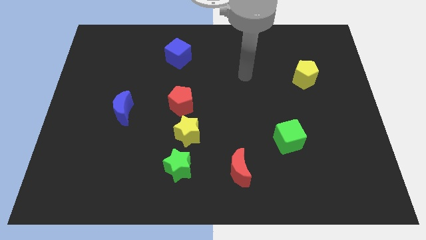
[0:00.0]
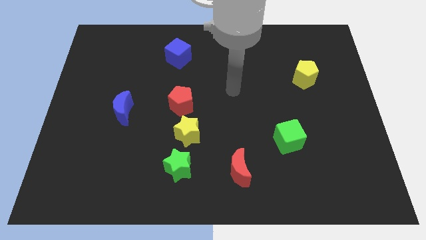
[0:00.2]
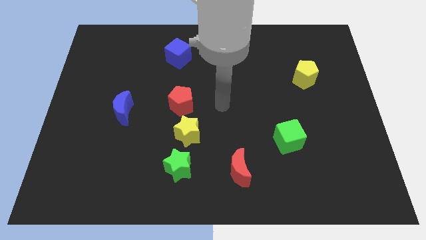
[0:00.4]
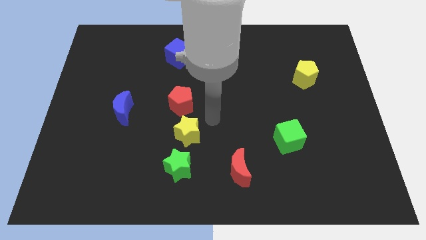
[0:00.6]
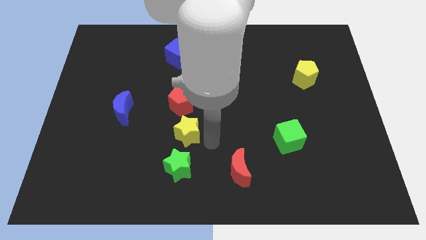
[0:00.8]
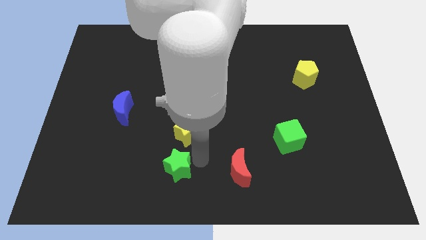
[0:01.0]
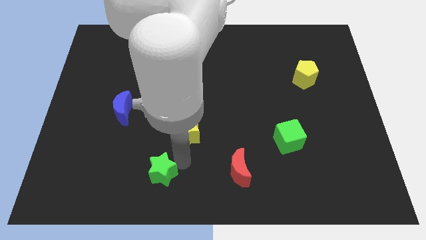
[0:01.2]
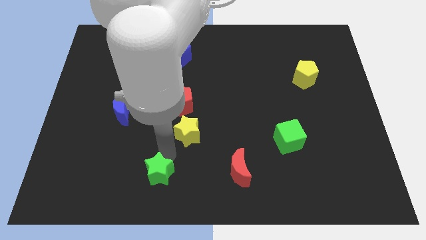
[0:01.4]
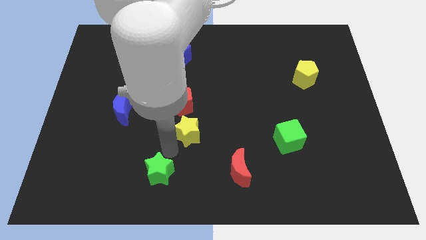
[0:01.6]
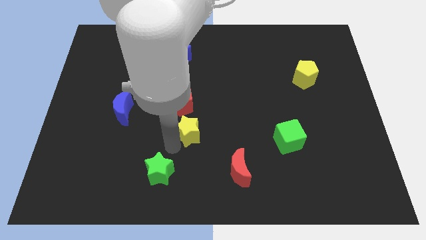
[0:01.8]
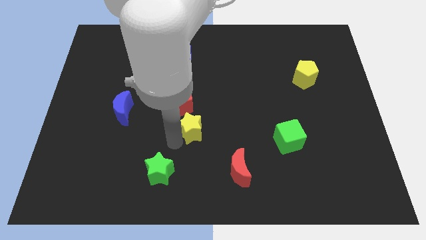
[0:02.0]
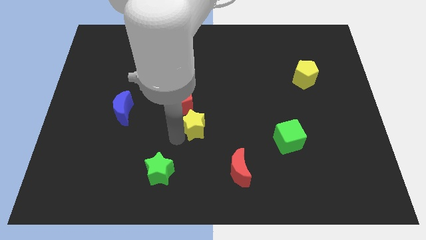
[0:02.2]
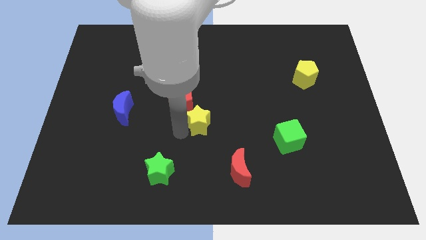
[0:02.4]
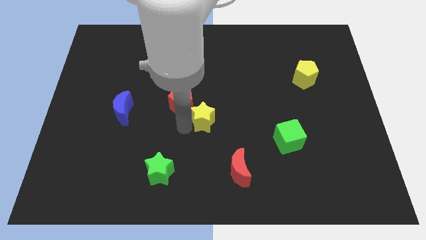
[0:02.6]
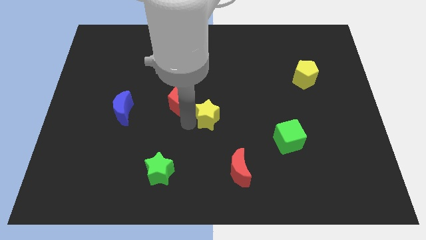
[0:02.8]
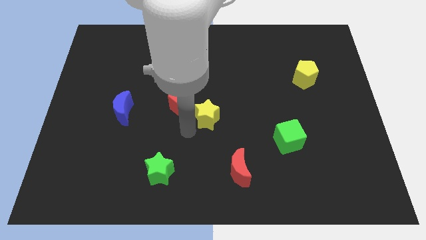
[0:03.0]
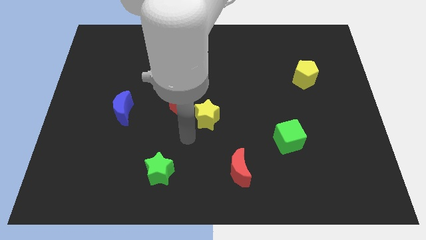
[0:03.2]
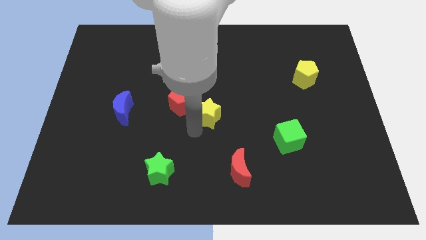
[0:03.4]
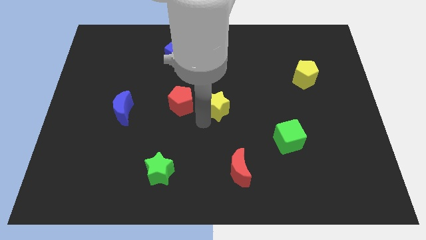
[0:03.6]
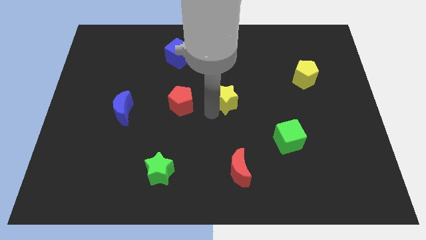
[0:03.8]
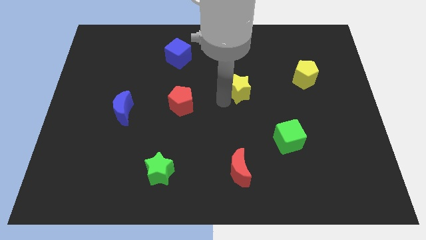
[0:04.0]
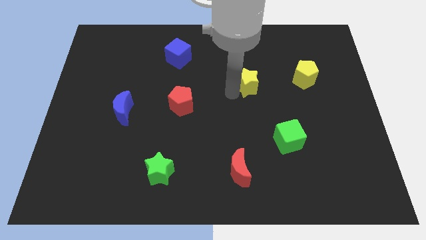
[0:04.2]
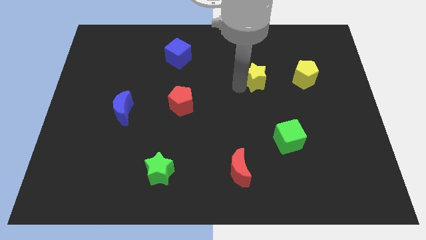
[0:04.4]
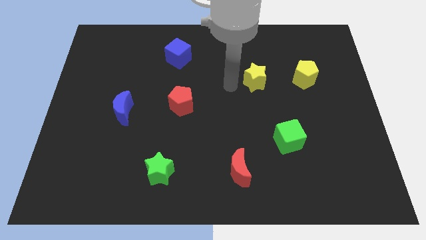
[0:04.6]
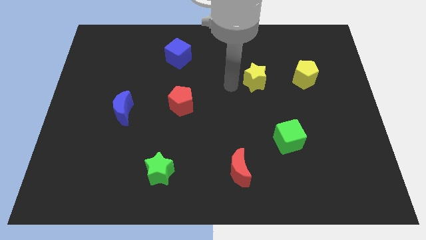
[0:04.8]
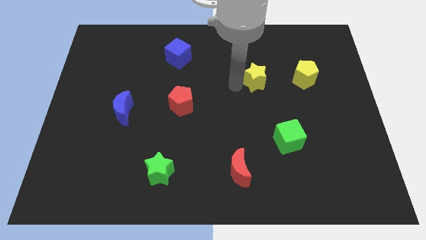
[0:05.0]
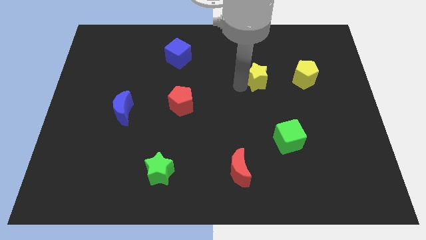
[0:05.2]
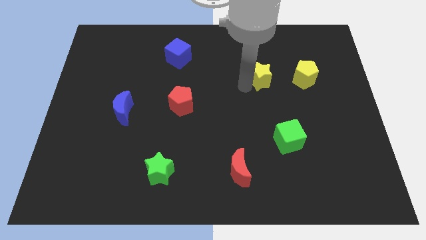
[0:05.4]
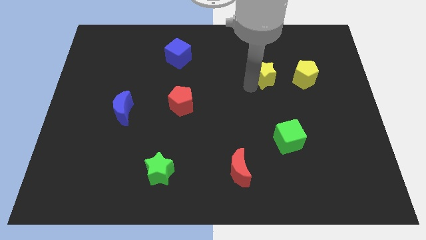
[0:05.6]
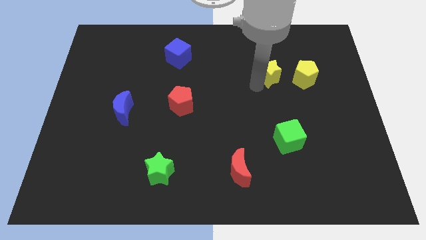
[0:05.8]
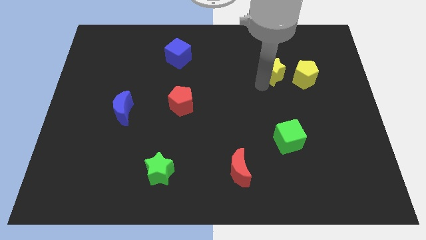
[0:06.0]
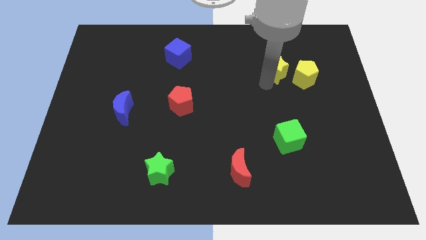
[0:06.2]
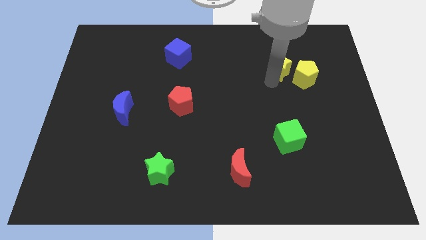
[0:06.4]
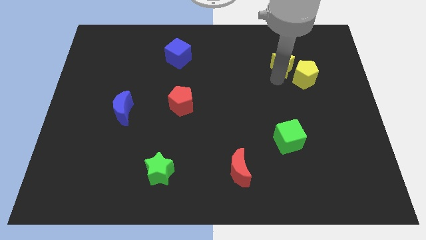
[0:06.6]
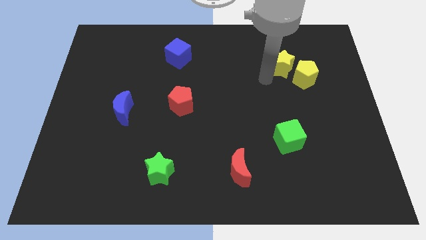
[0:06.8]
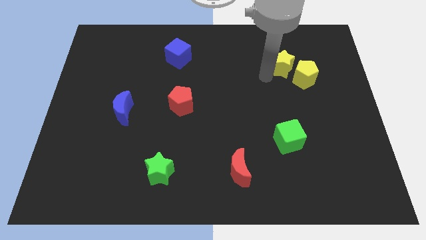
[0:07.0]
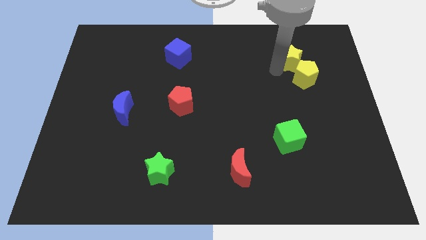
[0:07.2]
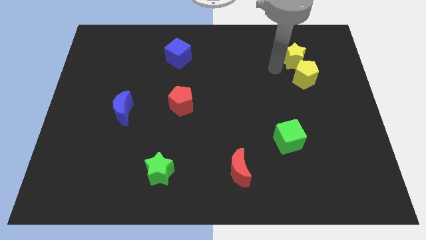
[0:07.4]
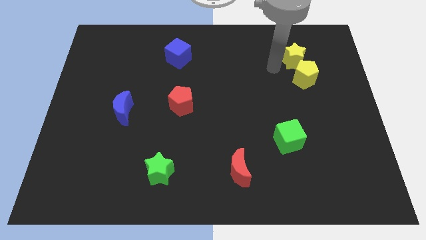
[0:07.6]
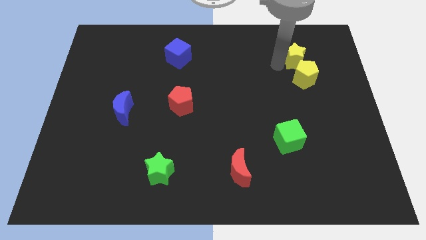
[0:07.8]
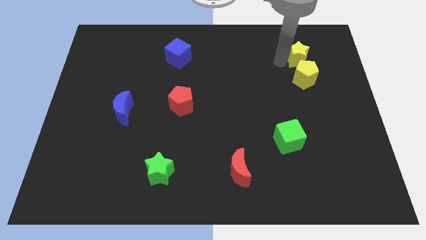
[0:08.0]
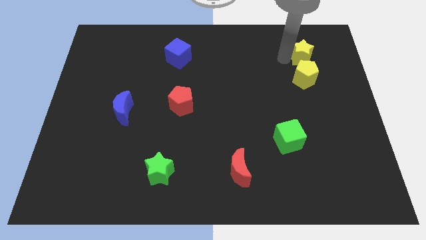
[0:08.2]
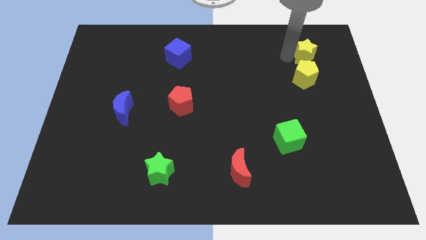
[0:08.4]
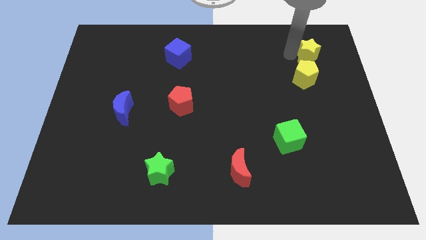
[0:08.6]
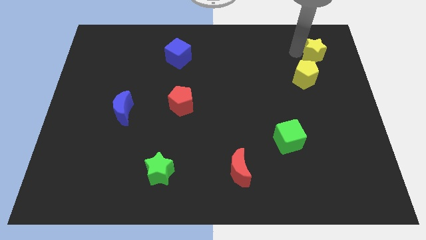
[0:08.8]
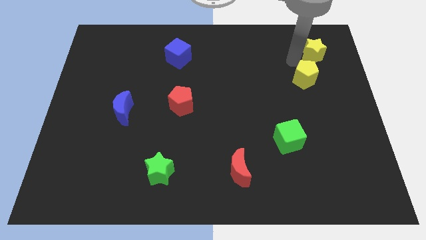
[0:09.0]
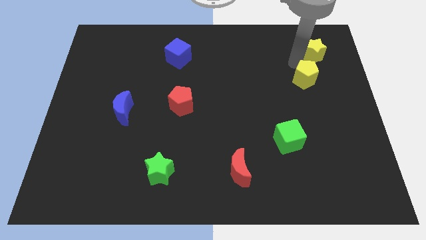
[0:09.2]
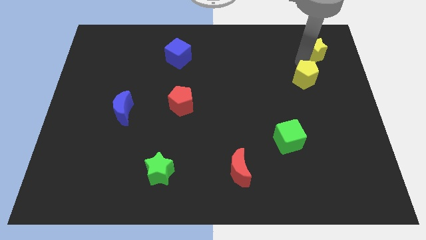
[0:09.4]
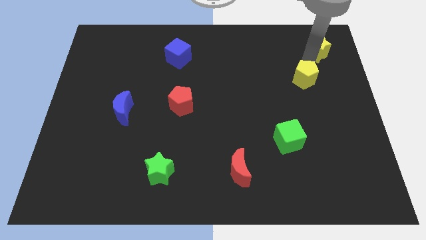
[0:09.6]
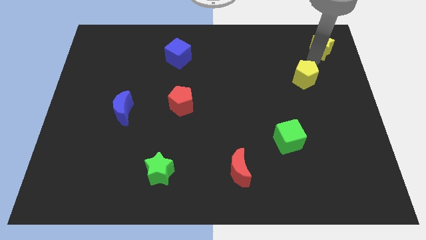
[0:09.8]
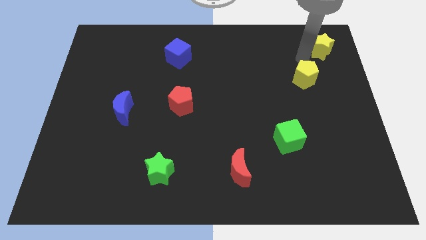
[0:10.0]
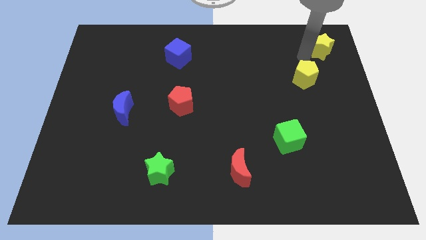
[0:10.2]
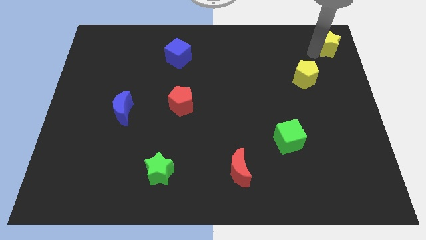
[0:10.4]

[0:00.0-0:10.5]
push the yellow star to the top right of the board

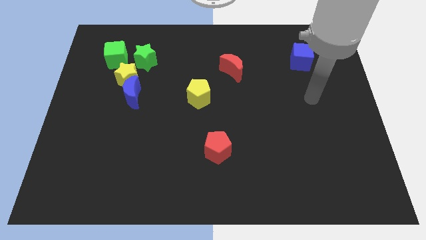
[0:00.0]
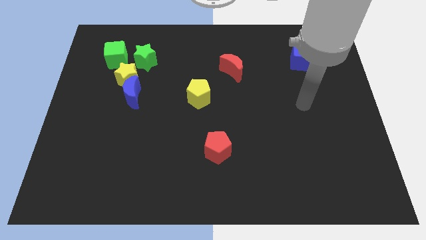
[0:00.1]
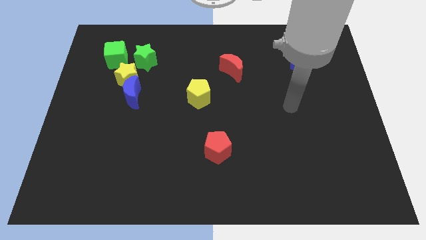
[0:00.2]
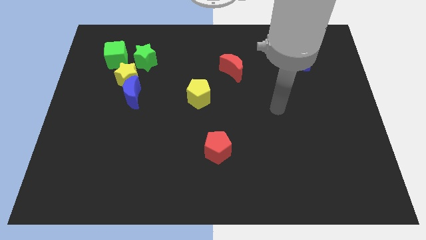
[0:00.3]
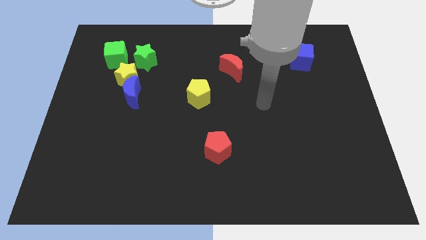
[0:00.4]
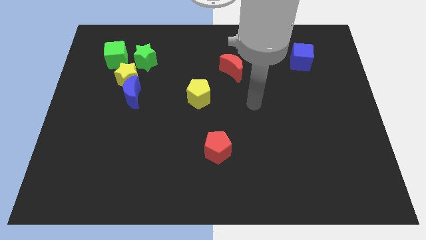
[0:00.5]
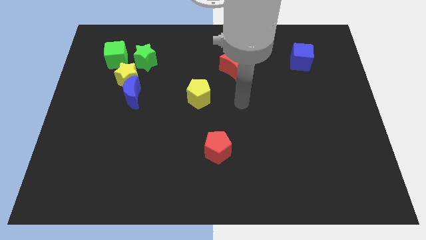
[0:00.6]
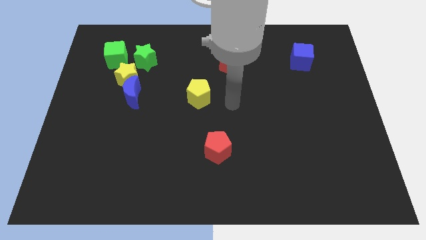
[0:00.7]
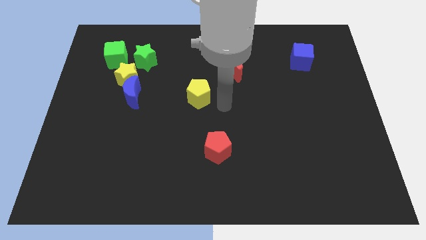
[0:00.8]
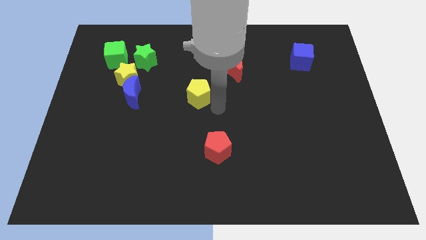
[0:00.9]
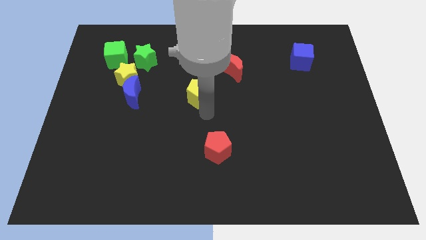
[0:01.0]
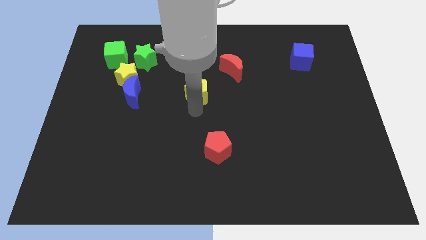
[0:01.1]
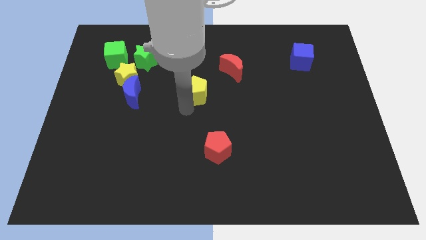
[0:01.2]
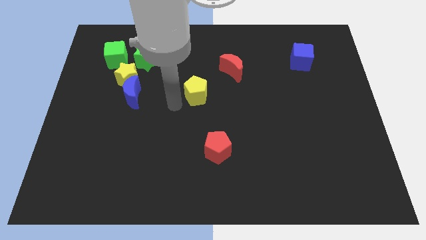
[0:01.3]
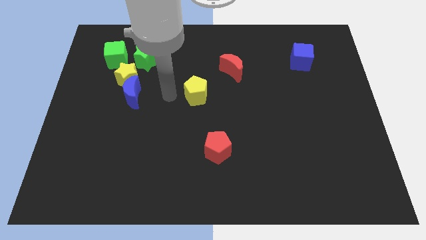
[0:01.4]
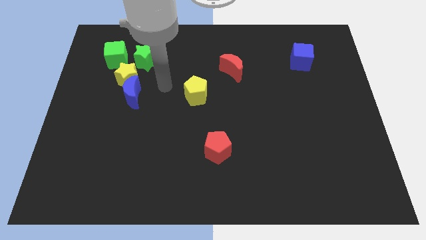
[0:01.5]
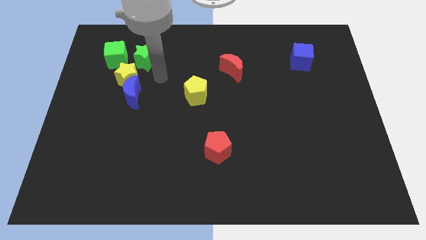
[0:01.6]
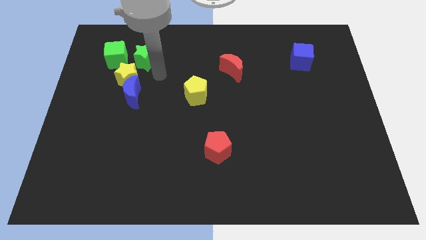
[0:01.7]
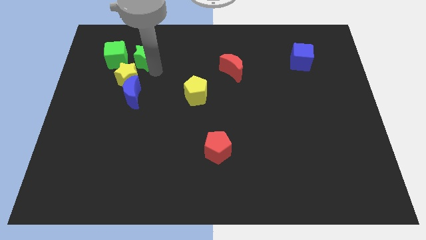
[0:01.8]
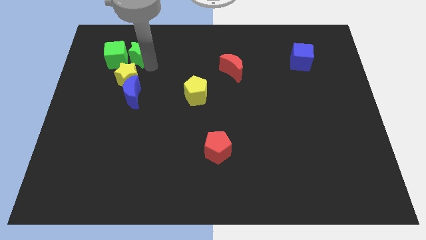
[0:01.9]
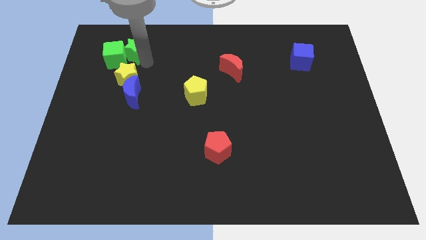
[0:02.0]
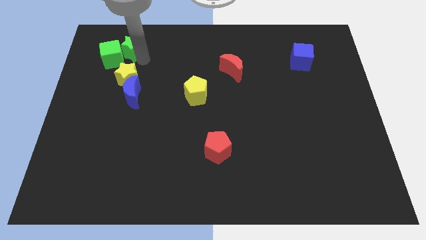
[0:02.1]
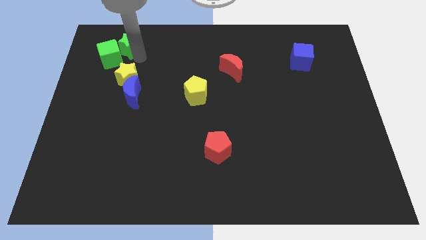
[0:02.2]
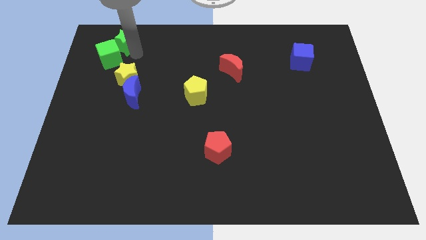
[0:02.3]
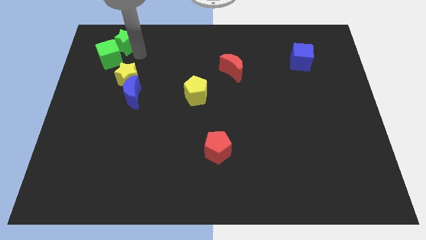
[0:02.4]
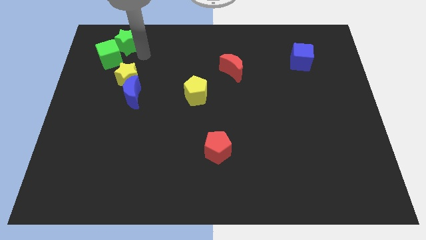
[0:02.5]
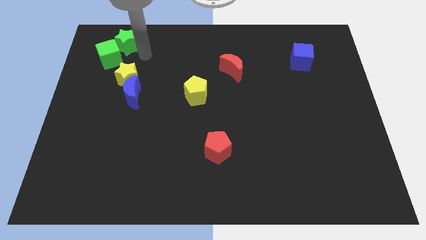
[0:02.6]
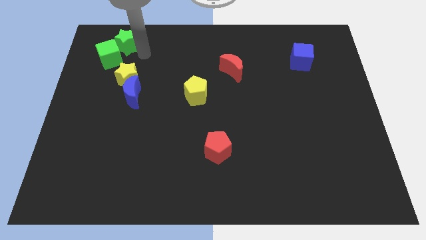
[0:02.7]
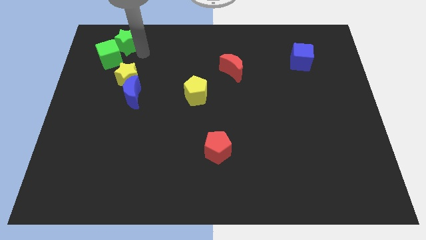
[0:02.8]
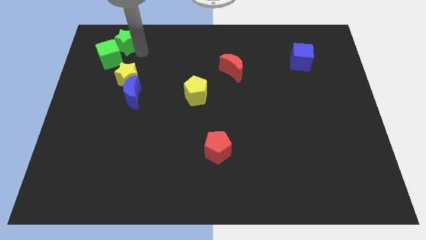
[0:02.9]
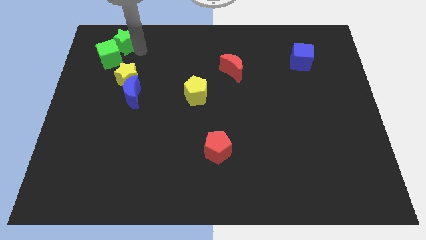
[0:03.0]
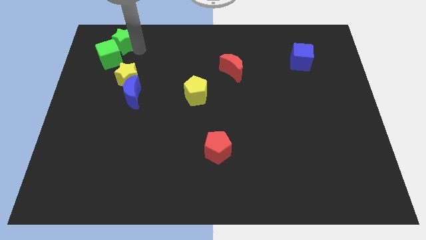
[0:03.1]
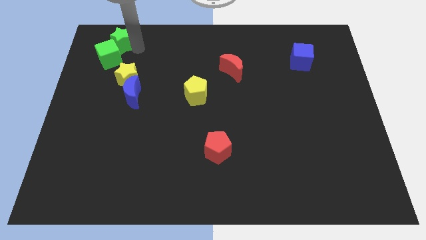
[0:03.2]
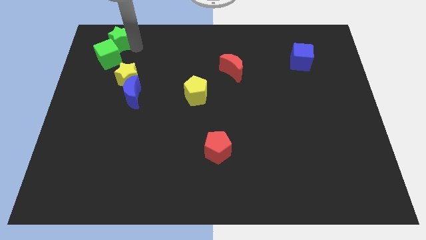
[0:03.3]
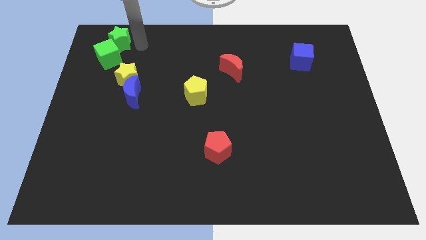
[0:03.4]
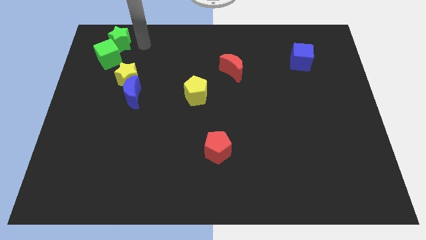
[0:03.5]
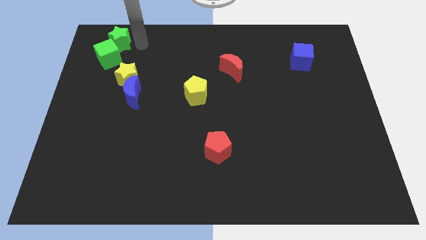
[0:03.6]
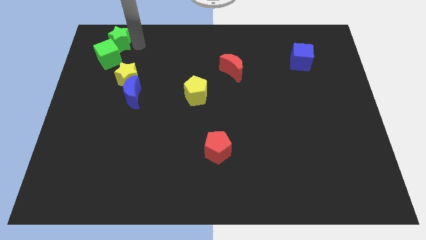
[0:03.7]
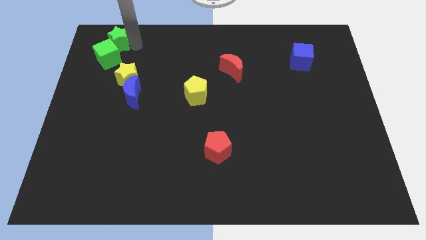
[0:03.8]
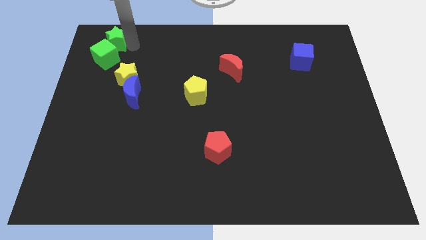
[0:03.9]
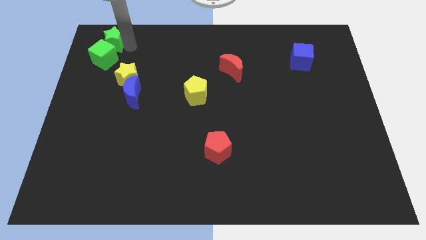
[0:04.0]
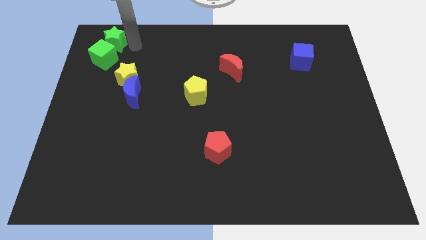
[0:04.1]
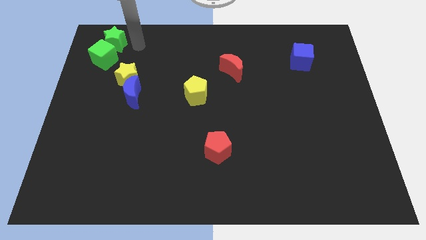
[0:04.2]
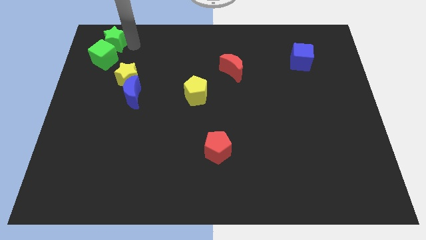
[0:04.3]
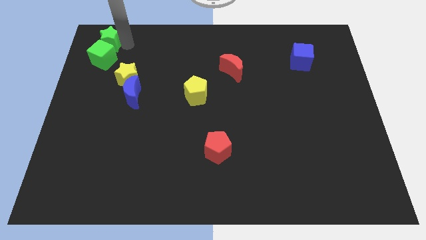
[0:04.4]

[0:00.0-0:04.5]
slide the green star to the top left
